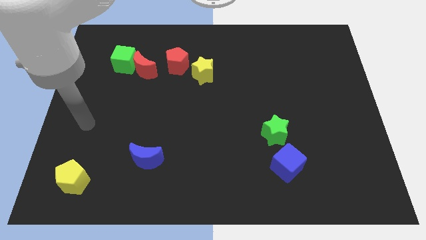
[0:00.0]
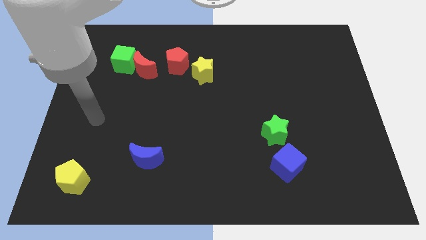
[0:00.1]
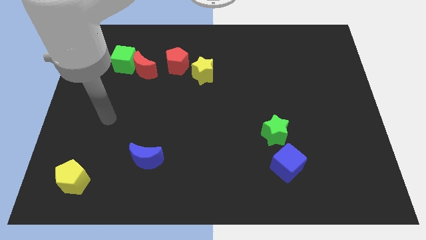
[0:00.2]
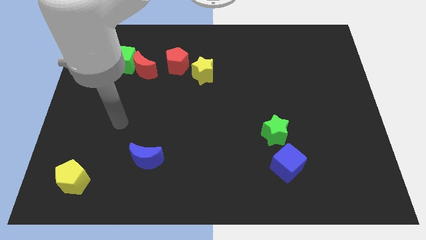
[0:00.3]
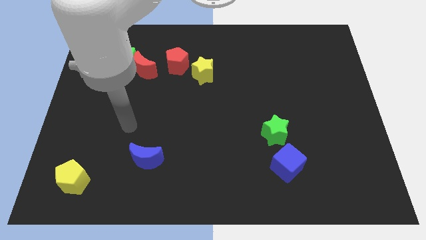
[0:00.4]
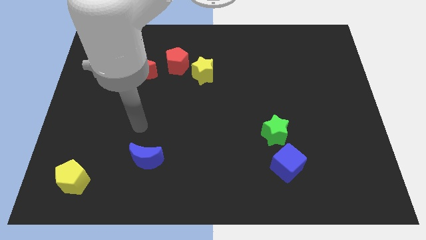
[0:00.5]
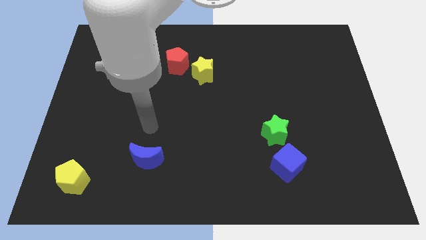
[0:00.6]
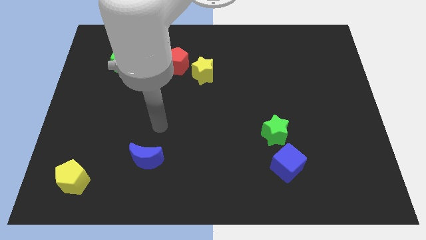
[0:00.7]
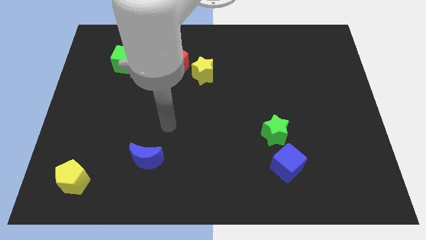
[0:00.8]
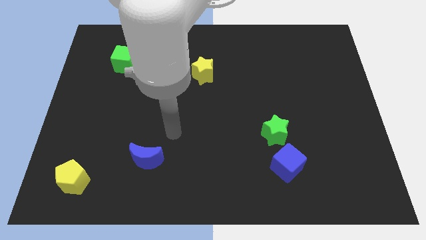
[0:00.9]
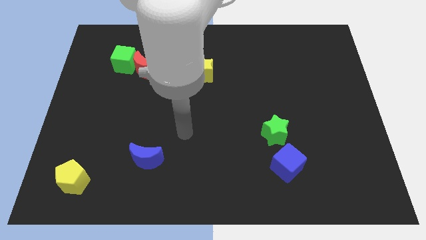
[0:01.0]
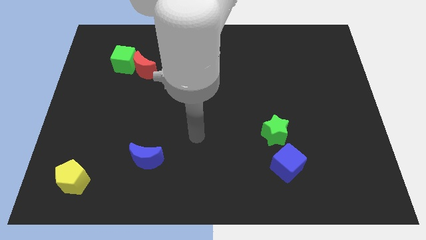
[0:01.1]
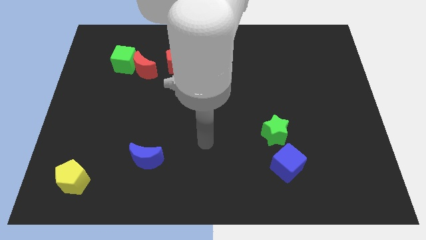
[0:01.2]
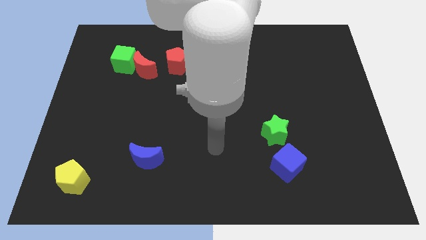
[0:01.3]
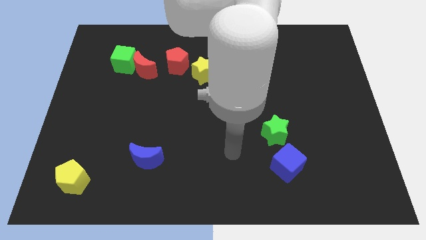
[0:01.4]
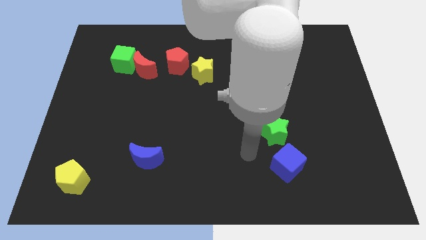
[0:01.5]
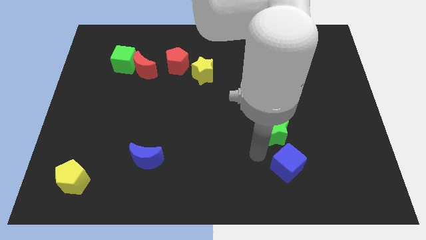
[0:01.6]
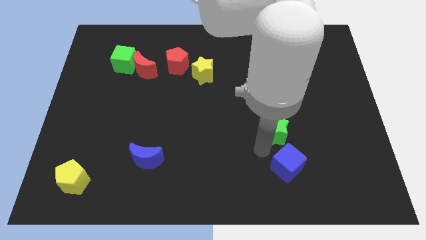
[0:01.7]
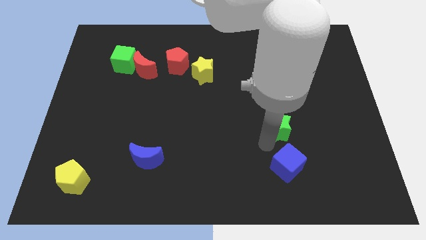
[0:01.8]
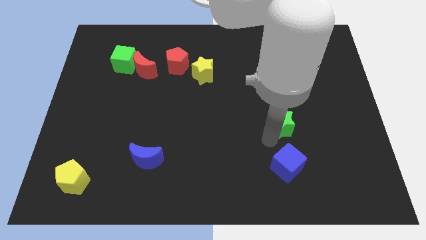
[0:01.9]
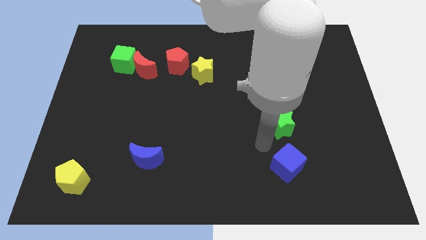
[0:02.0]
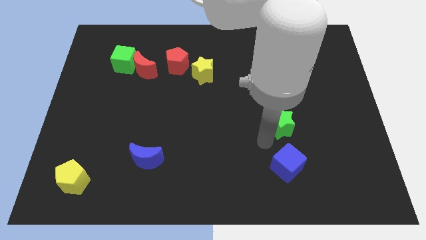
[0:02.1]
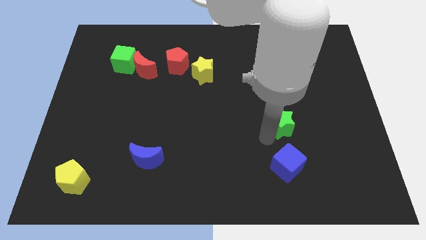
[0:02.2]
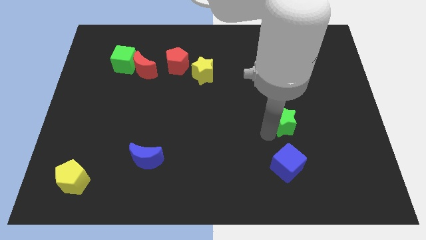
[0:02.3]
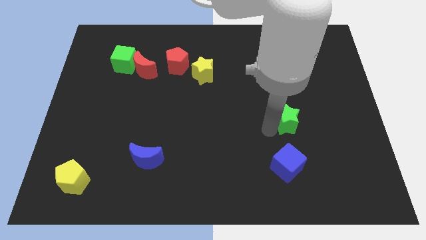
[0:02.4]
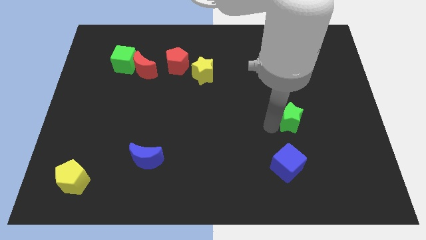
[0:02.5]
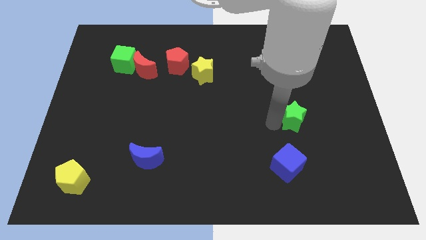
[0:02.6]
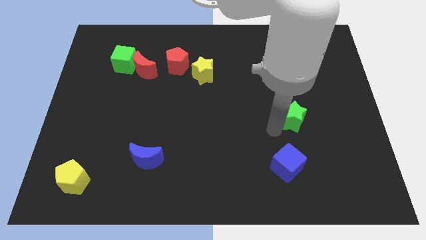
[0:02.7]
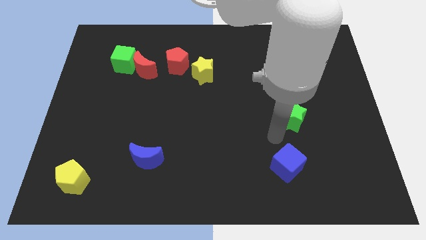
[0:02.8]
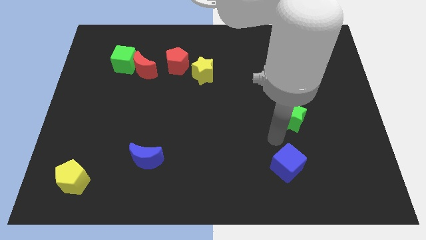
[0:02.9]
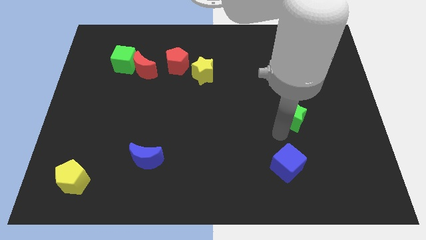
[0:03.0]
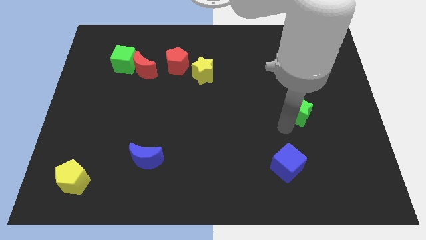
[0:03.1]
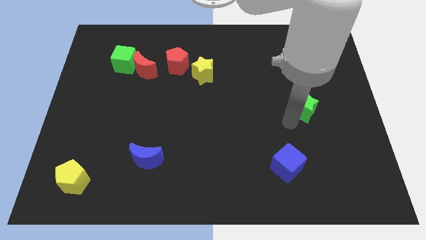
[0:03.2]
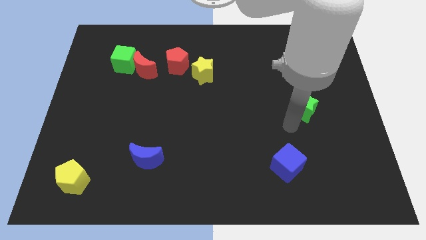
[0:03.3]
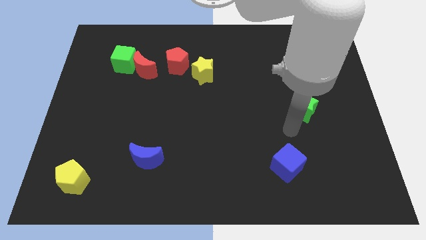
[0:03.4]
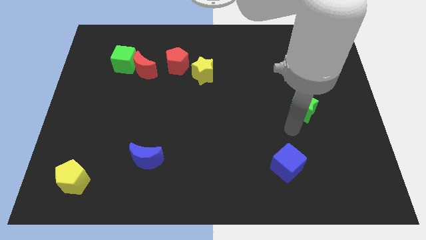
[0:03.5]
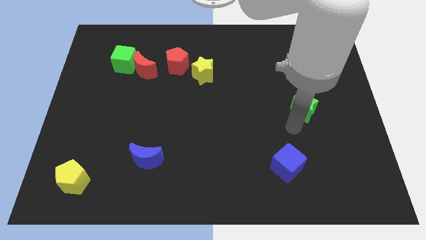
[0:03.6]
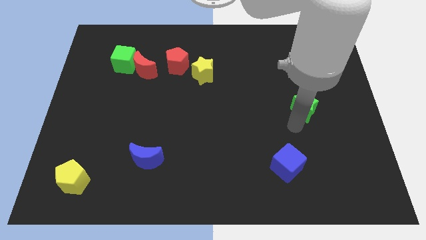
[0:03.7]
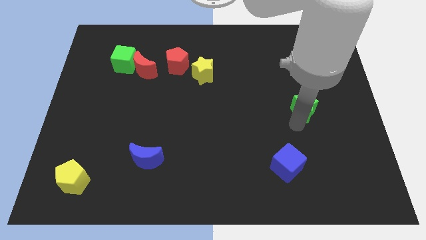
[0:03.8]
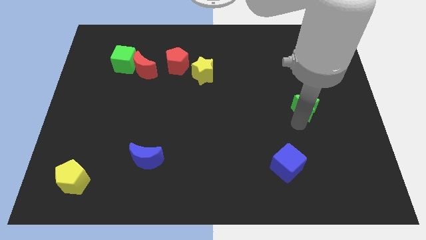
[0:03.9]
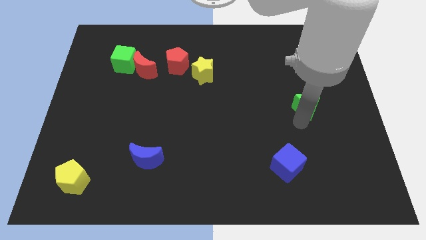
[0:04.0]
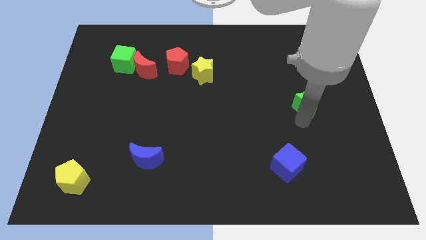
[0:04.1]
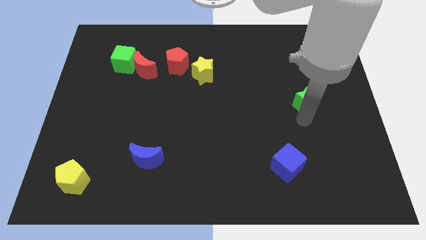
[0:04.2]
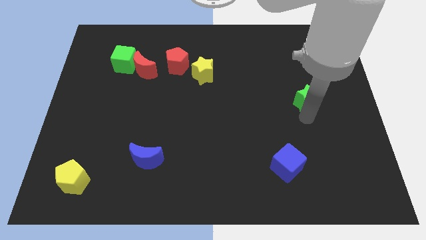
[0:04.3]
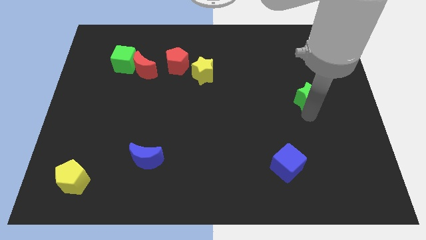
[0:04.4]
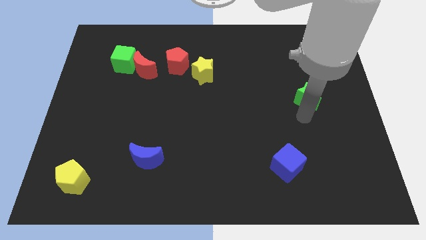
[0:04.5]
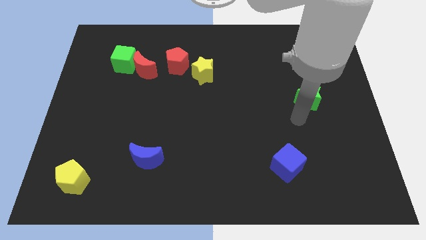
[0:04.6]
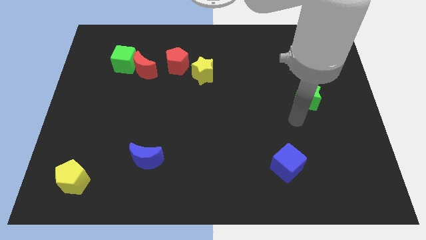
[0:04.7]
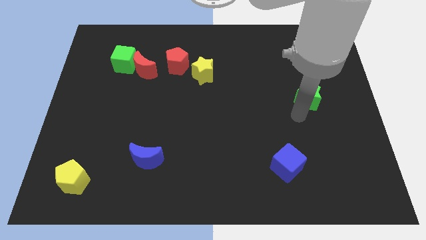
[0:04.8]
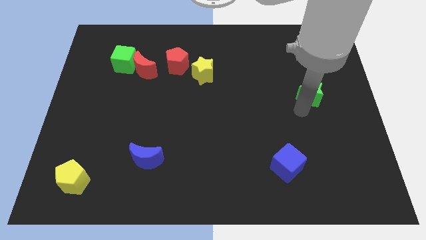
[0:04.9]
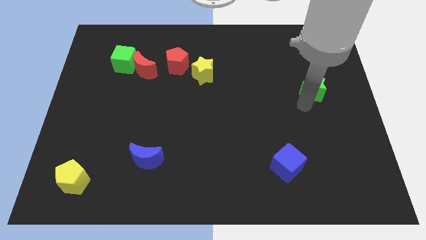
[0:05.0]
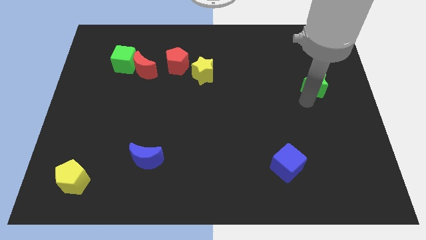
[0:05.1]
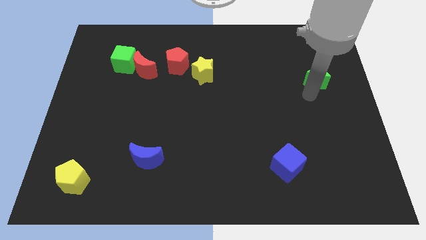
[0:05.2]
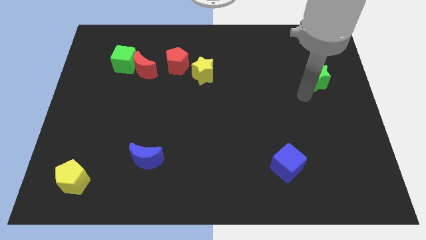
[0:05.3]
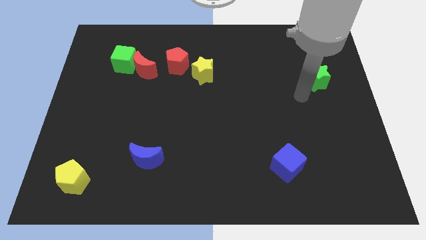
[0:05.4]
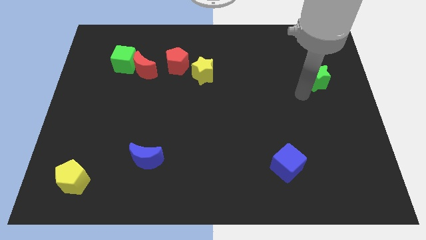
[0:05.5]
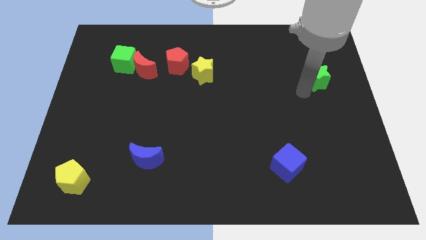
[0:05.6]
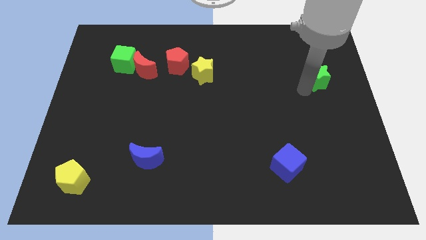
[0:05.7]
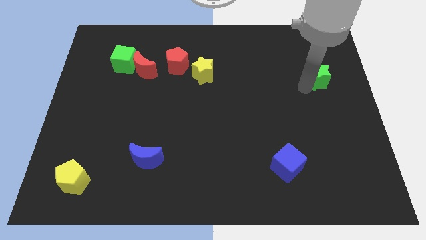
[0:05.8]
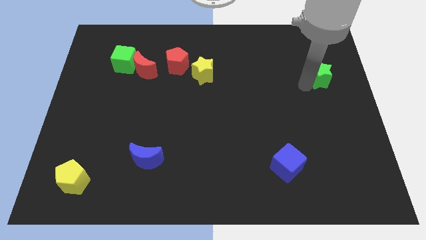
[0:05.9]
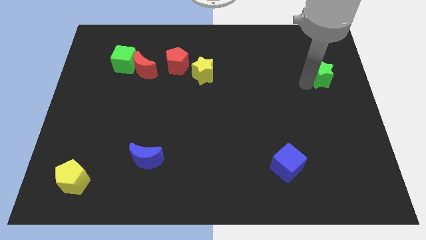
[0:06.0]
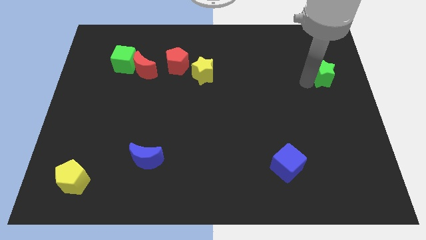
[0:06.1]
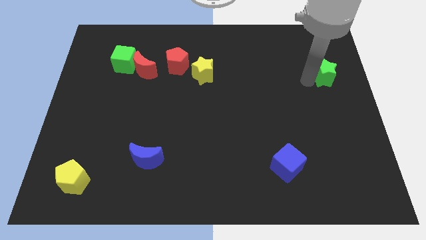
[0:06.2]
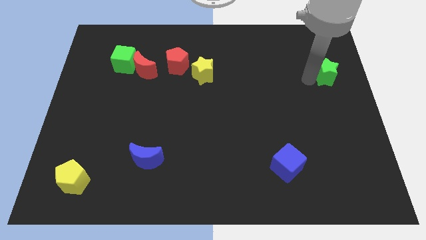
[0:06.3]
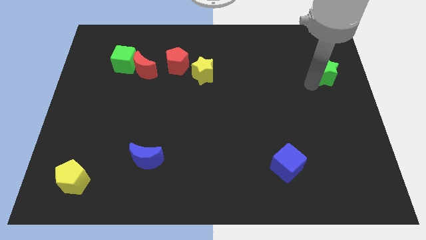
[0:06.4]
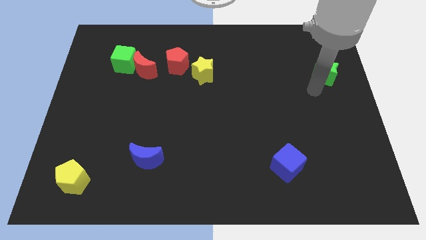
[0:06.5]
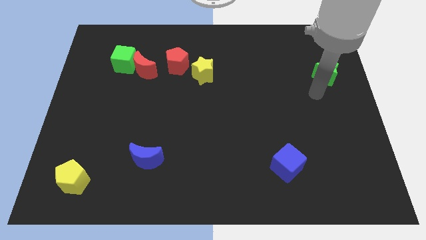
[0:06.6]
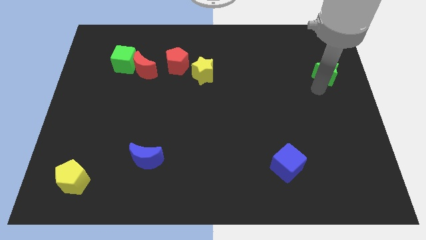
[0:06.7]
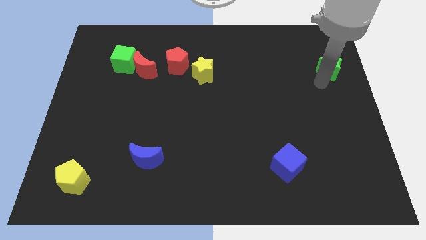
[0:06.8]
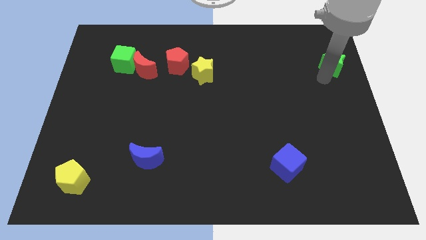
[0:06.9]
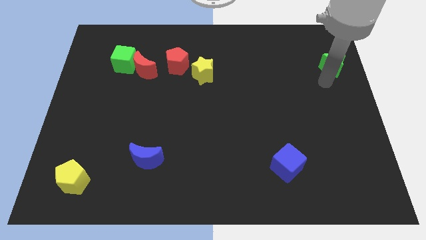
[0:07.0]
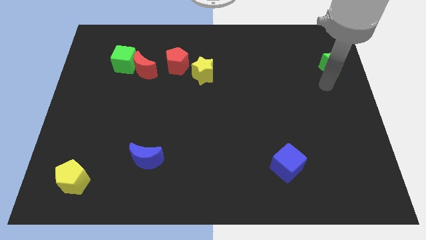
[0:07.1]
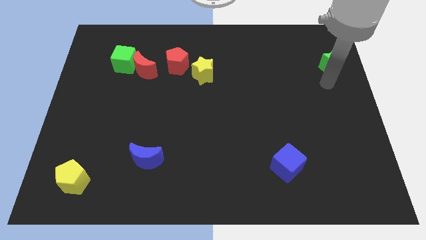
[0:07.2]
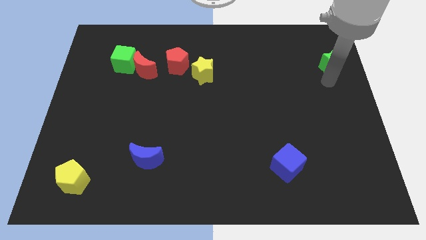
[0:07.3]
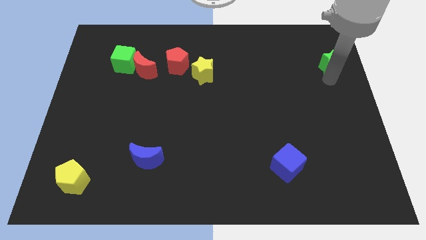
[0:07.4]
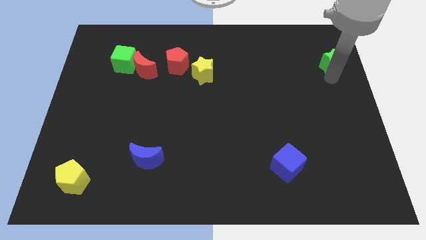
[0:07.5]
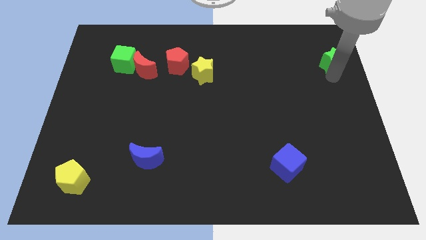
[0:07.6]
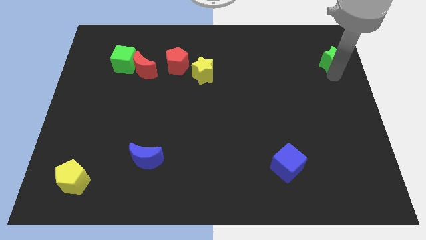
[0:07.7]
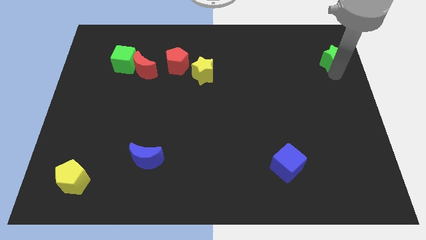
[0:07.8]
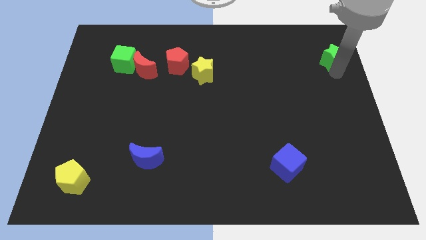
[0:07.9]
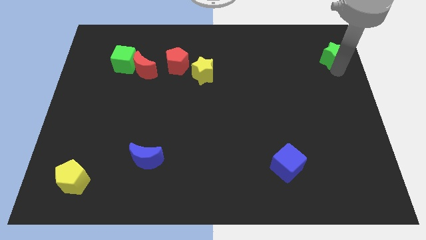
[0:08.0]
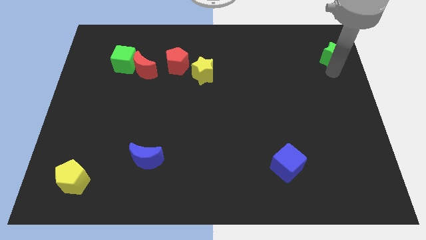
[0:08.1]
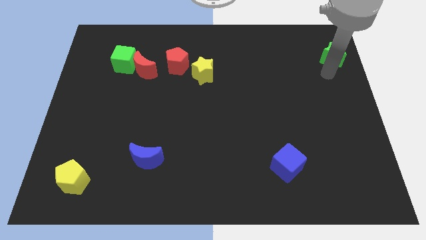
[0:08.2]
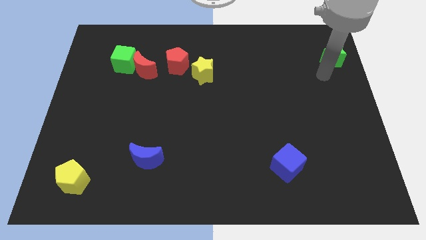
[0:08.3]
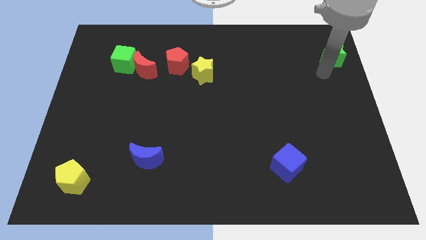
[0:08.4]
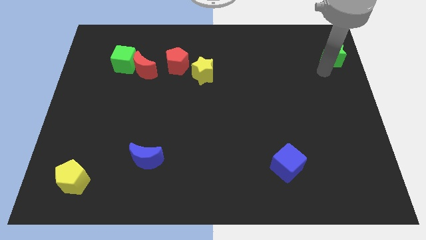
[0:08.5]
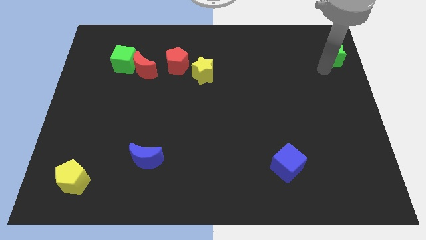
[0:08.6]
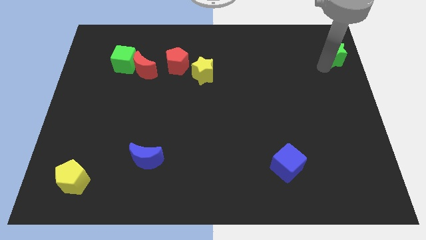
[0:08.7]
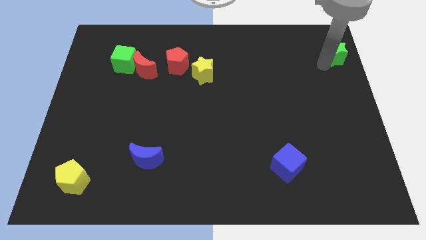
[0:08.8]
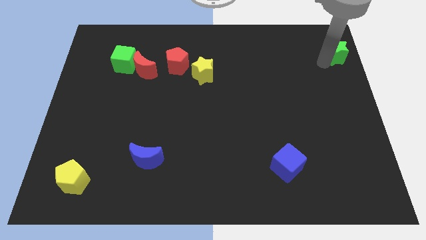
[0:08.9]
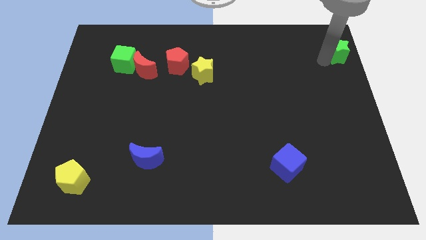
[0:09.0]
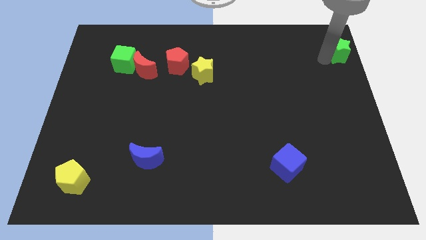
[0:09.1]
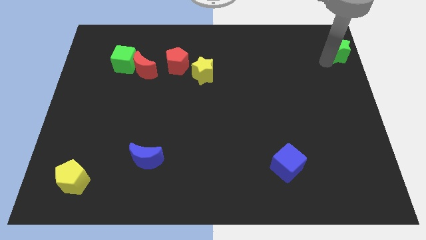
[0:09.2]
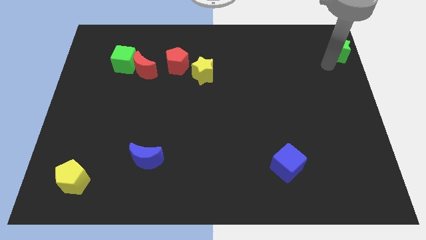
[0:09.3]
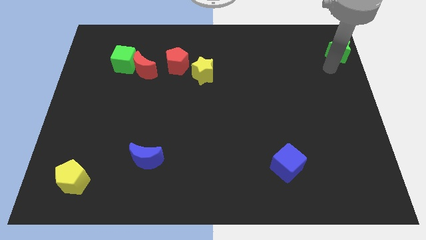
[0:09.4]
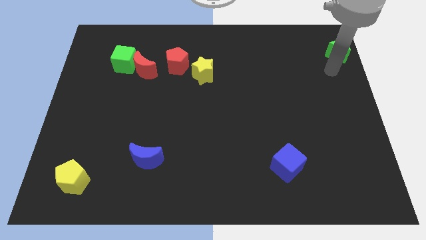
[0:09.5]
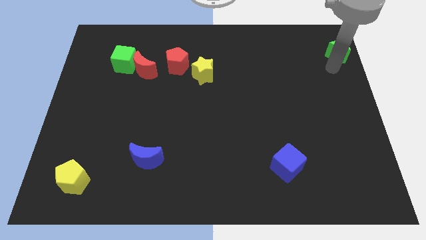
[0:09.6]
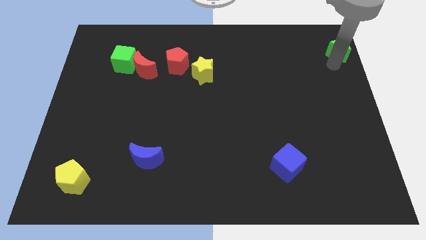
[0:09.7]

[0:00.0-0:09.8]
move the green star to the top right of the board
